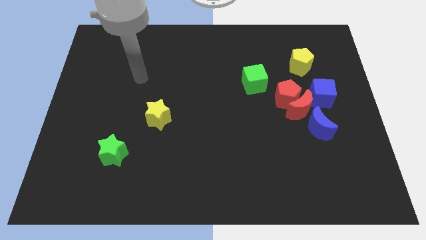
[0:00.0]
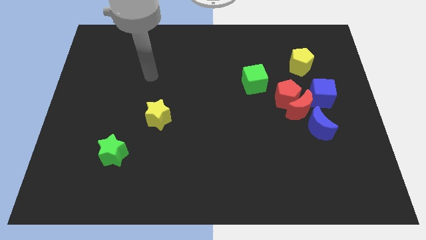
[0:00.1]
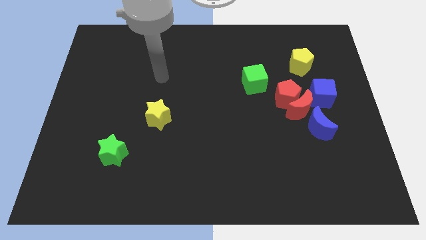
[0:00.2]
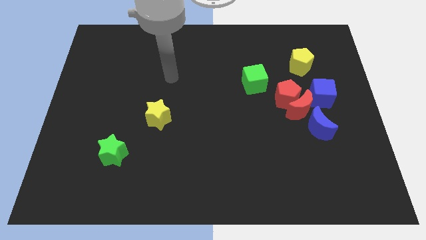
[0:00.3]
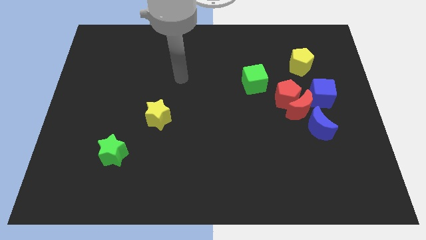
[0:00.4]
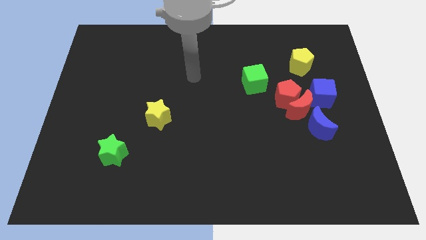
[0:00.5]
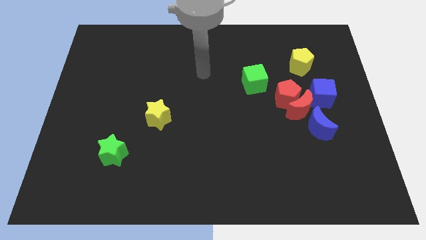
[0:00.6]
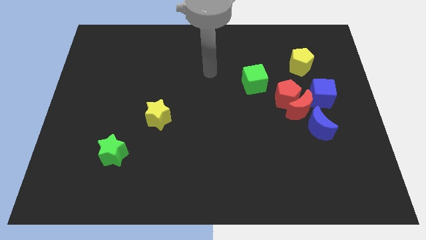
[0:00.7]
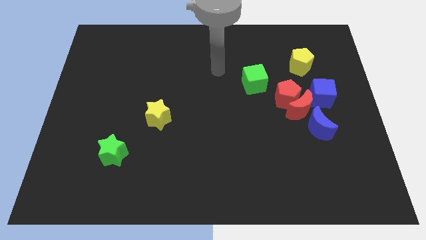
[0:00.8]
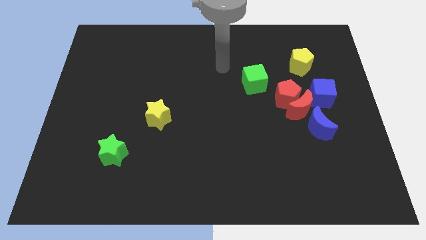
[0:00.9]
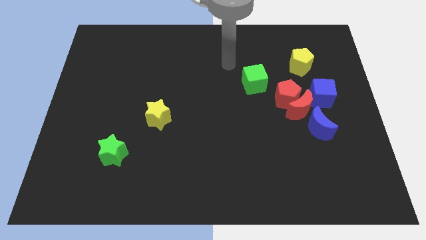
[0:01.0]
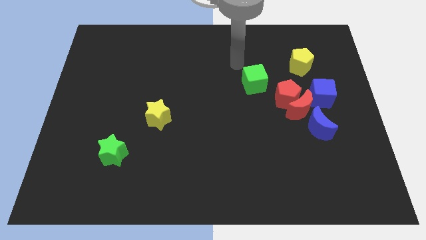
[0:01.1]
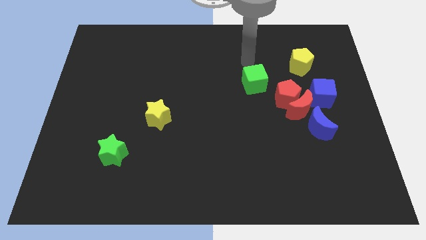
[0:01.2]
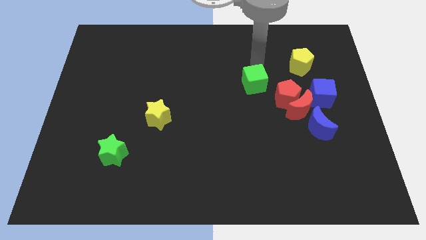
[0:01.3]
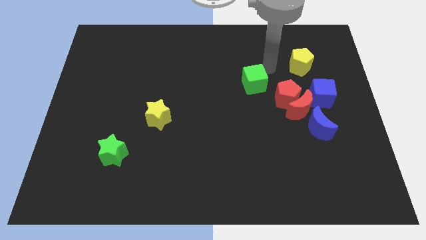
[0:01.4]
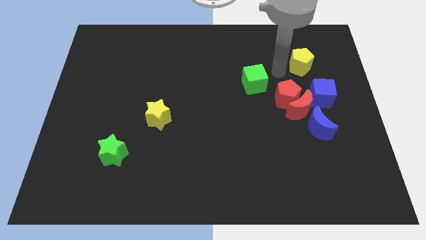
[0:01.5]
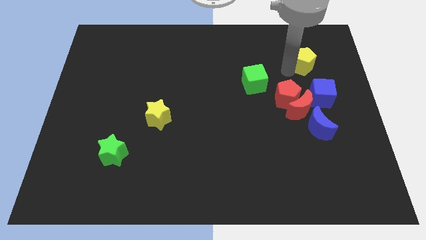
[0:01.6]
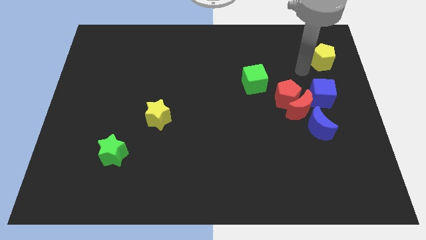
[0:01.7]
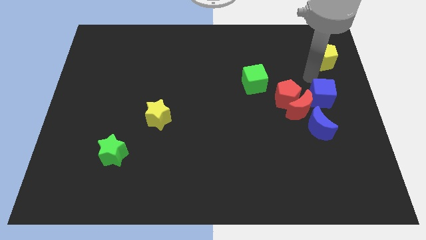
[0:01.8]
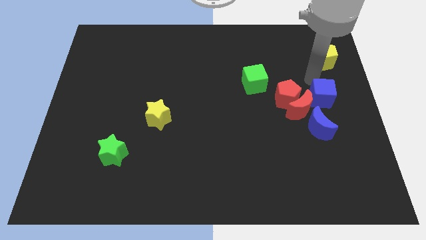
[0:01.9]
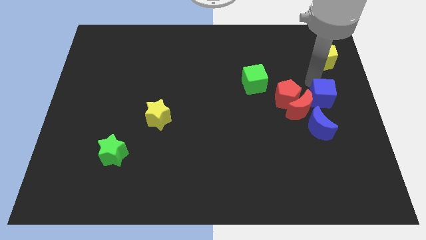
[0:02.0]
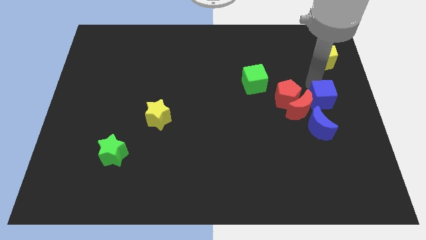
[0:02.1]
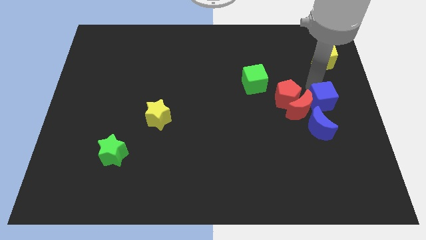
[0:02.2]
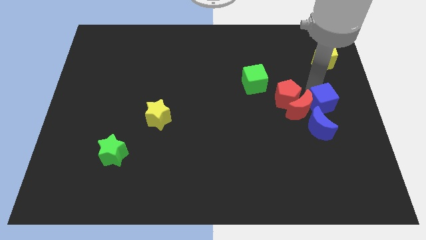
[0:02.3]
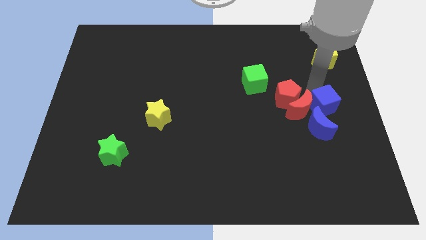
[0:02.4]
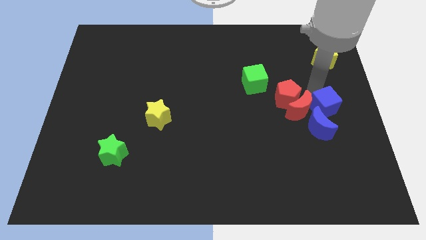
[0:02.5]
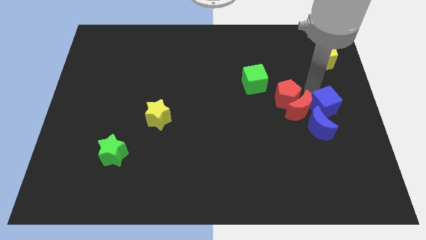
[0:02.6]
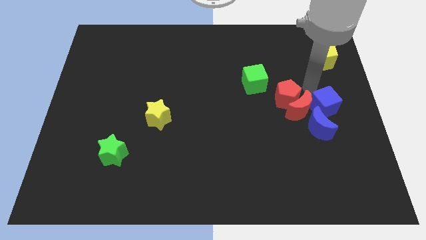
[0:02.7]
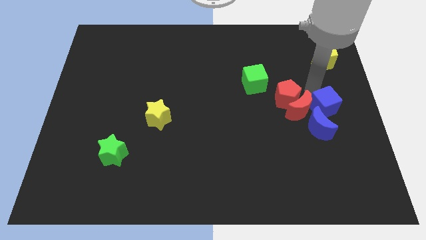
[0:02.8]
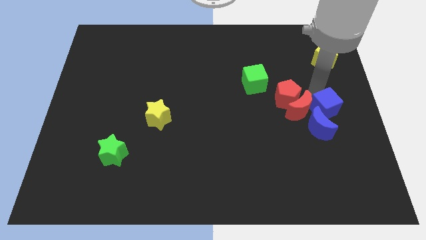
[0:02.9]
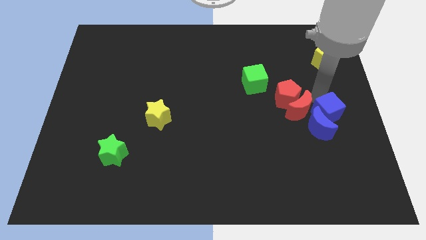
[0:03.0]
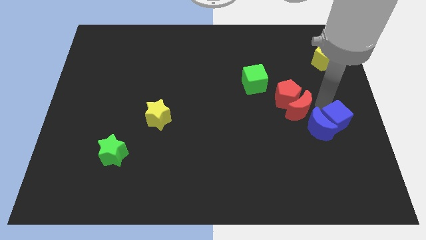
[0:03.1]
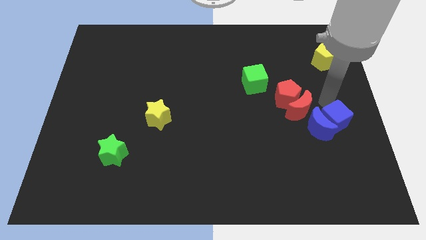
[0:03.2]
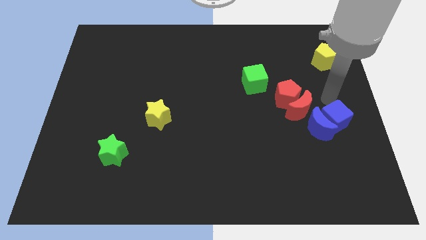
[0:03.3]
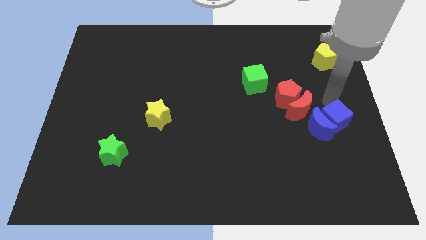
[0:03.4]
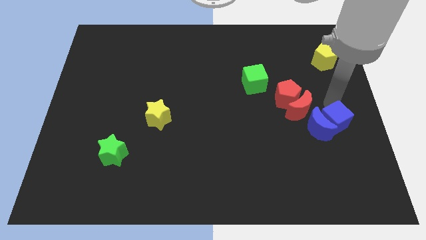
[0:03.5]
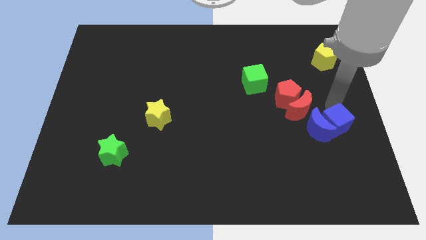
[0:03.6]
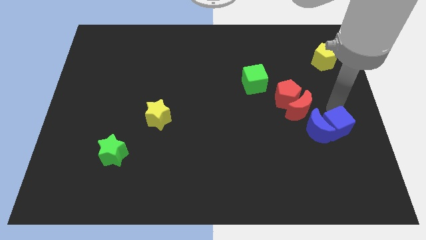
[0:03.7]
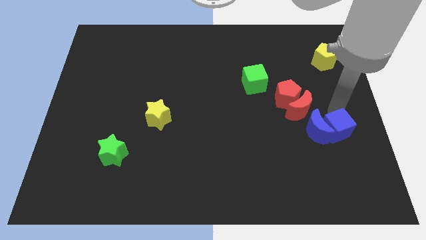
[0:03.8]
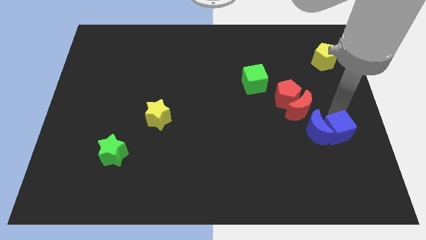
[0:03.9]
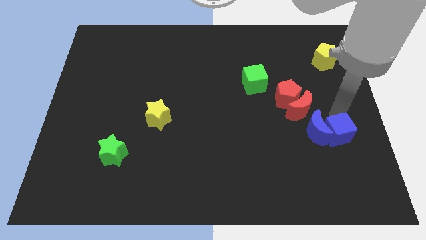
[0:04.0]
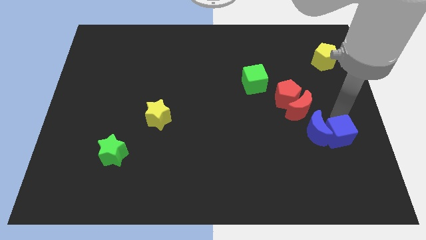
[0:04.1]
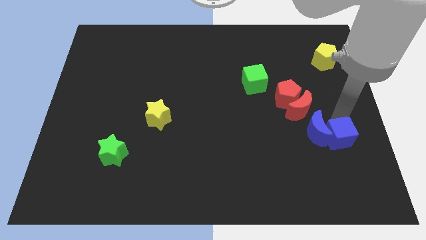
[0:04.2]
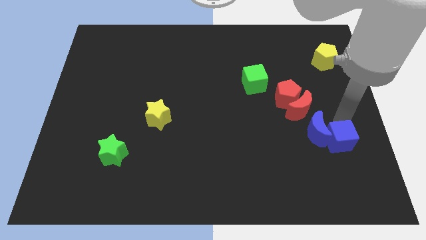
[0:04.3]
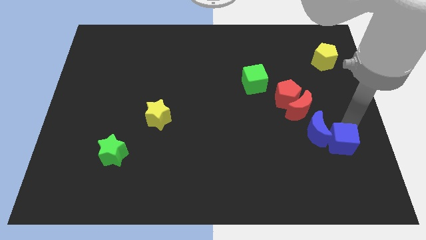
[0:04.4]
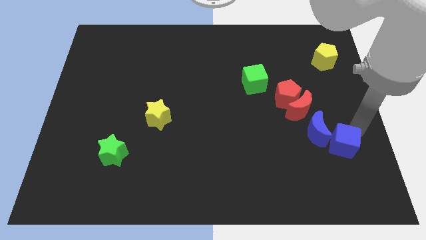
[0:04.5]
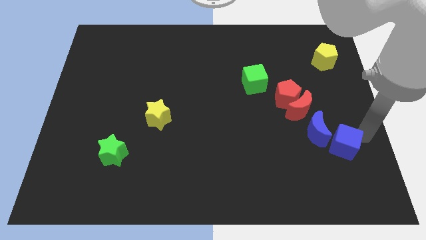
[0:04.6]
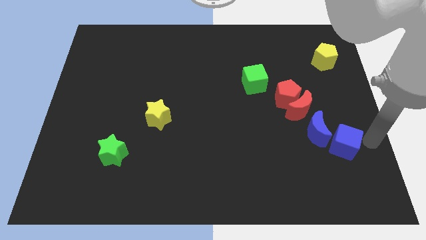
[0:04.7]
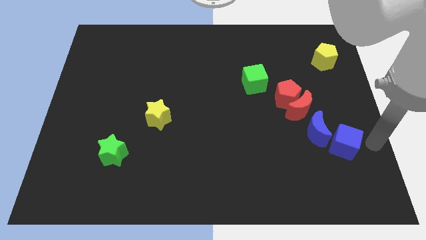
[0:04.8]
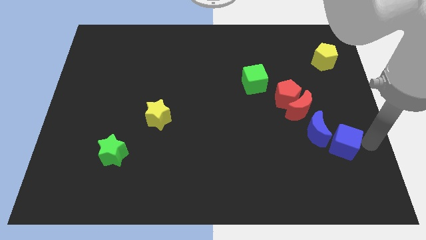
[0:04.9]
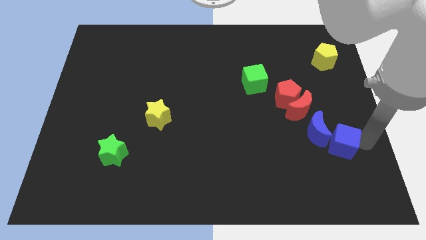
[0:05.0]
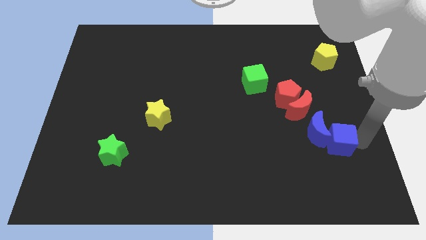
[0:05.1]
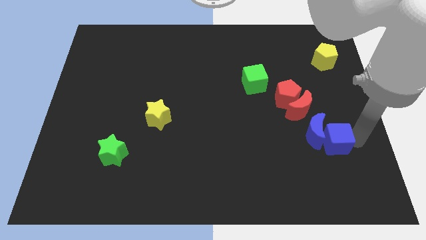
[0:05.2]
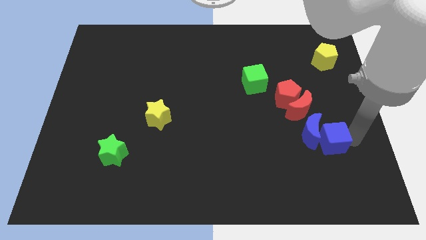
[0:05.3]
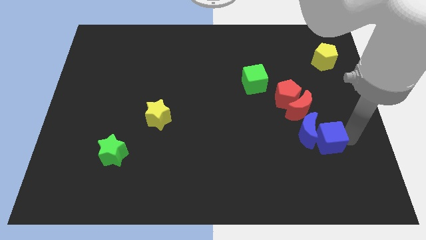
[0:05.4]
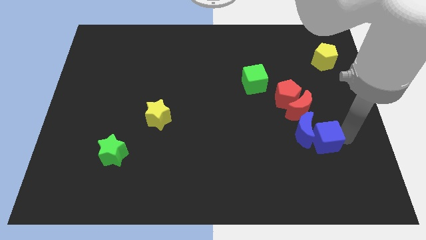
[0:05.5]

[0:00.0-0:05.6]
push the blue cube somewhat downwards and left diagonally

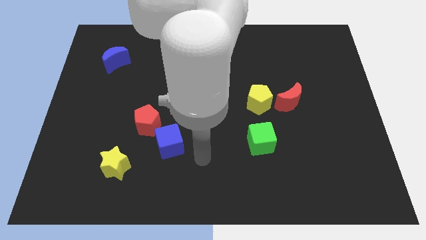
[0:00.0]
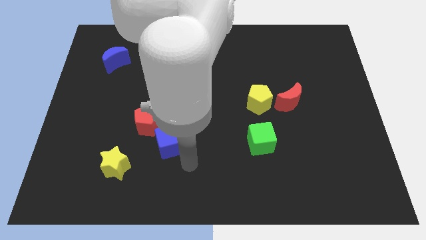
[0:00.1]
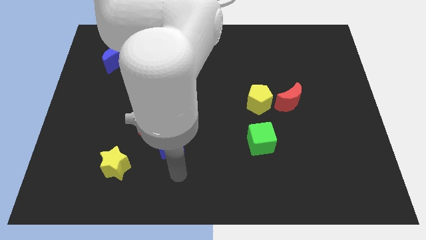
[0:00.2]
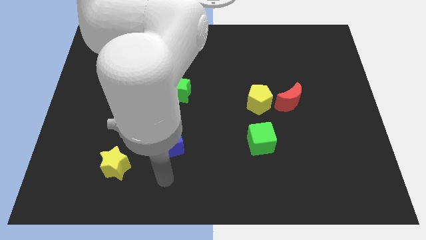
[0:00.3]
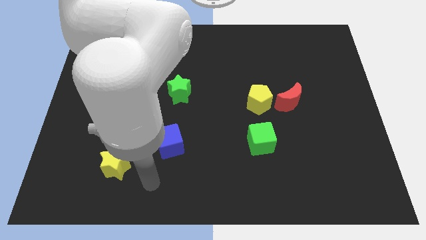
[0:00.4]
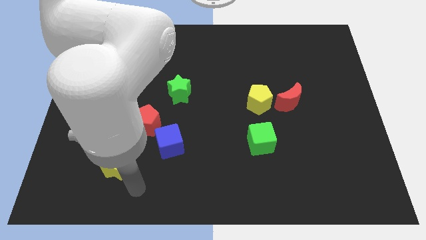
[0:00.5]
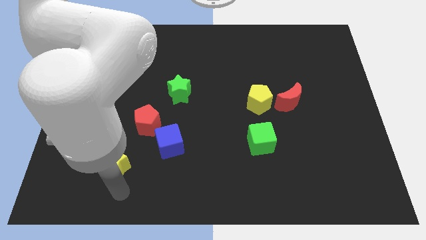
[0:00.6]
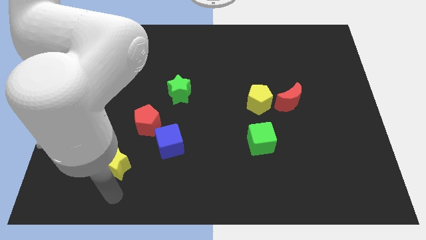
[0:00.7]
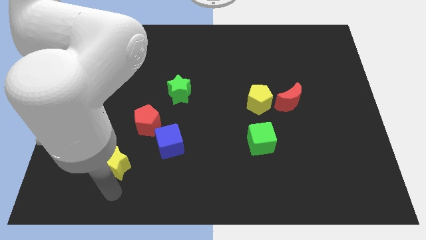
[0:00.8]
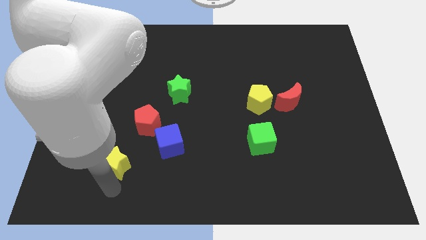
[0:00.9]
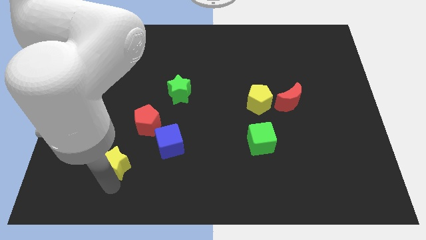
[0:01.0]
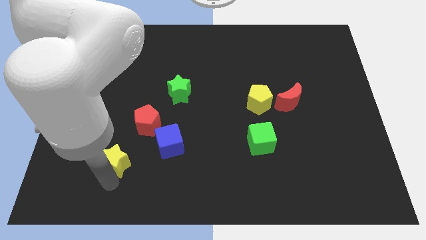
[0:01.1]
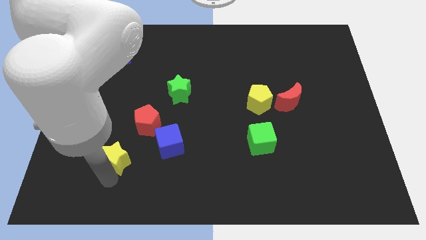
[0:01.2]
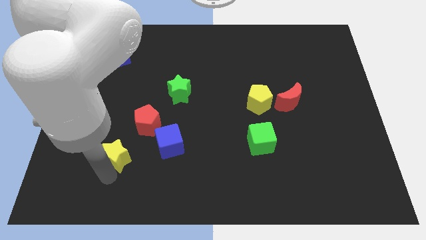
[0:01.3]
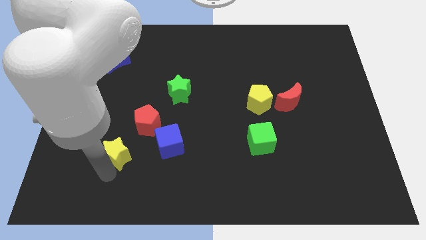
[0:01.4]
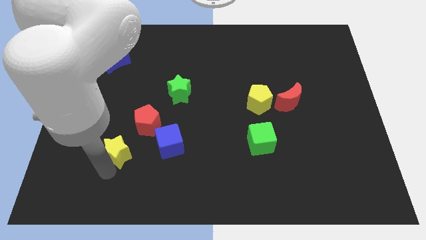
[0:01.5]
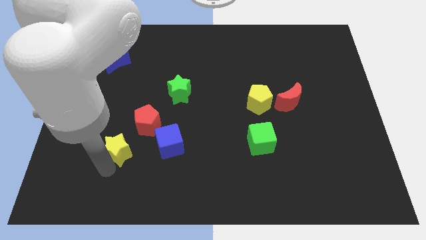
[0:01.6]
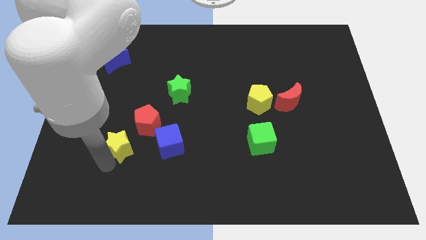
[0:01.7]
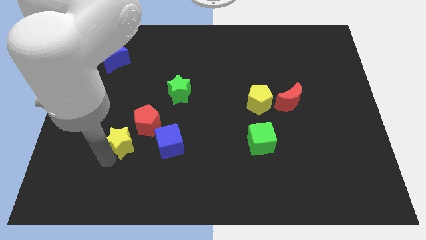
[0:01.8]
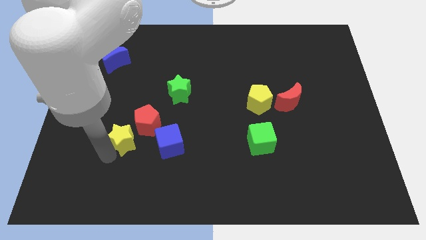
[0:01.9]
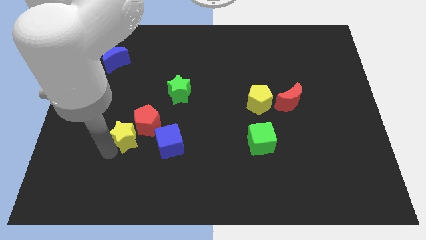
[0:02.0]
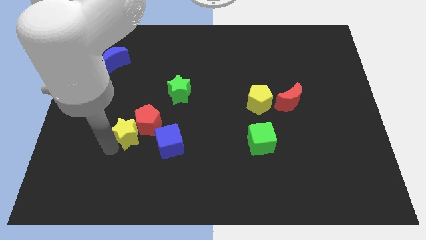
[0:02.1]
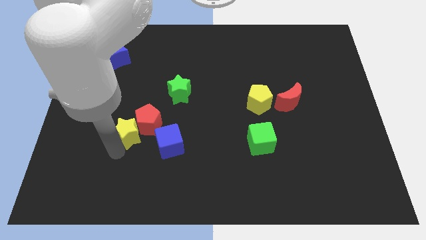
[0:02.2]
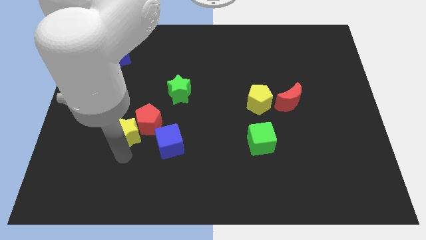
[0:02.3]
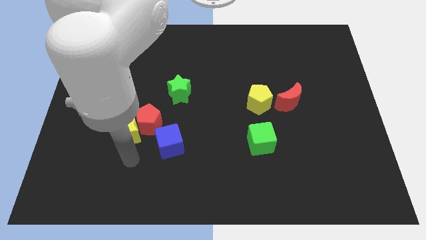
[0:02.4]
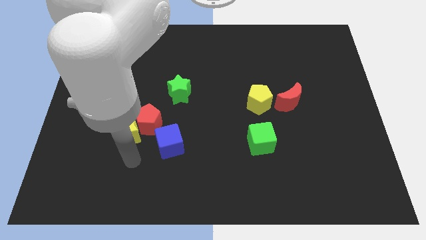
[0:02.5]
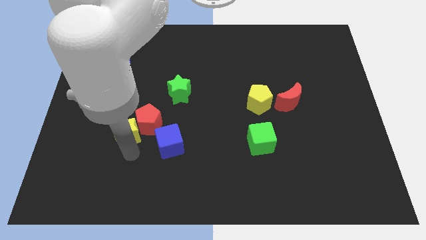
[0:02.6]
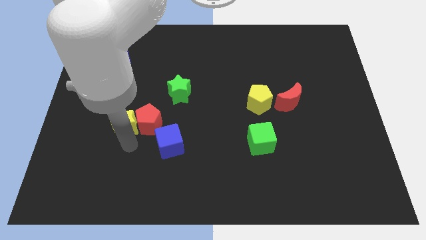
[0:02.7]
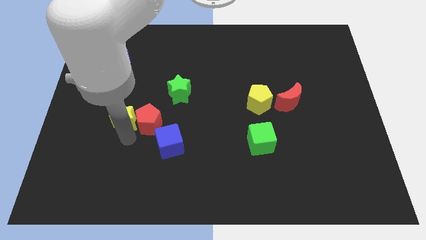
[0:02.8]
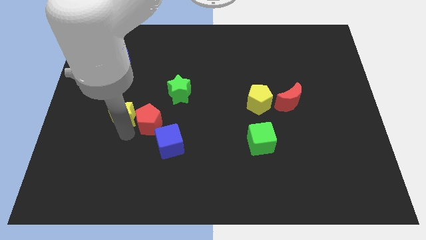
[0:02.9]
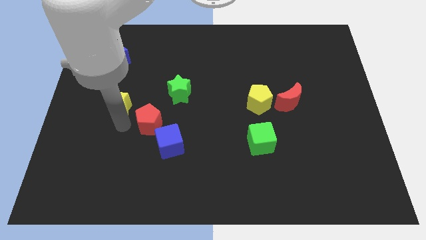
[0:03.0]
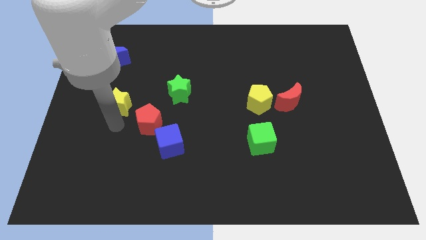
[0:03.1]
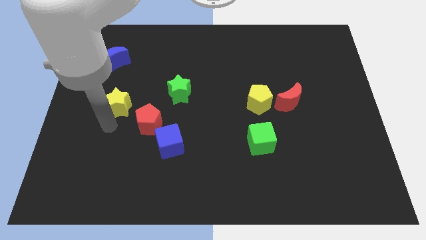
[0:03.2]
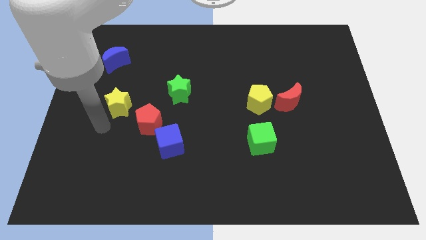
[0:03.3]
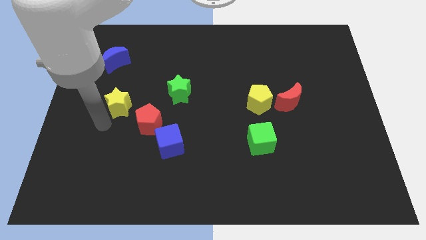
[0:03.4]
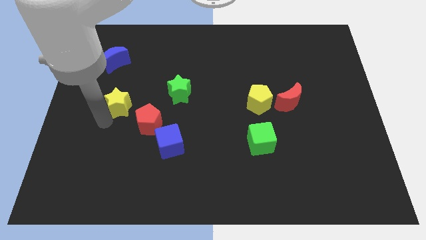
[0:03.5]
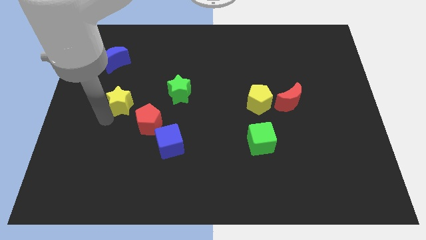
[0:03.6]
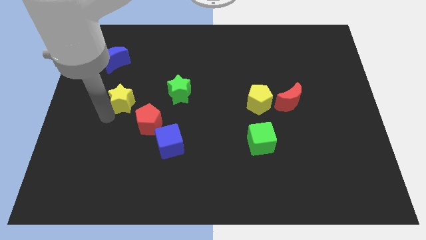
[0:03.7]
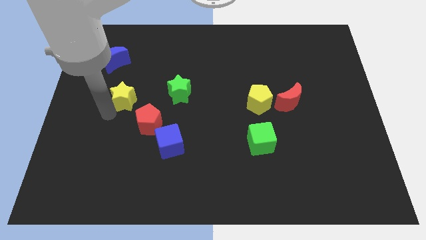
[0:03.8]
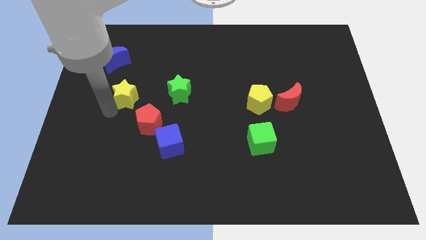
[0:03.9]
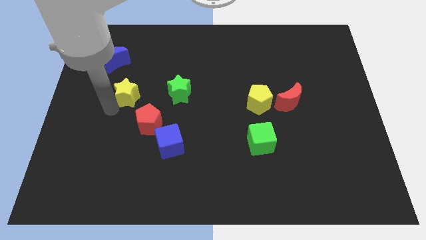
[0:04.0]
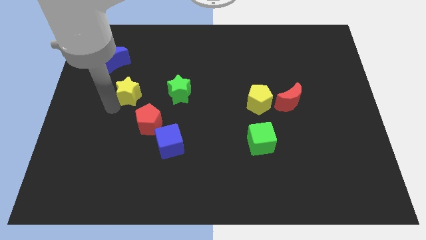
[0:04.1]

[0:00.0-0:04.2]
move the yellow star upwards
